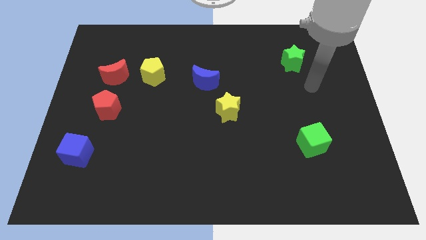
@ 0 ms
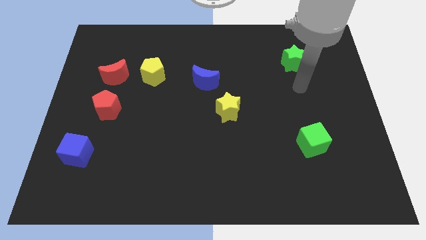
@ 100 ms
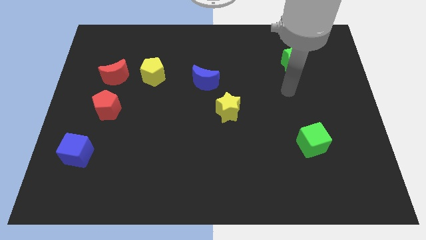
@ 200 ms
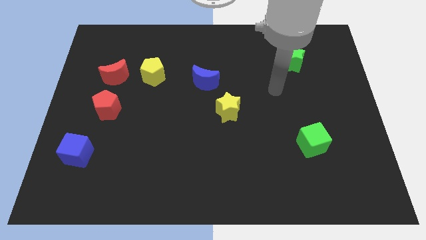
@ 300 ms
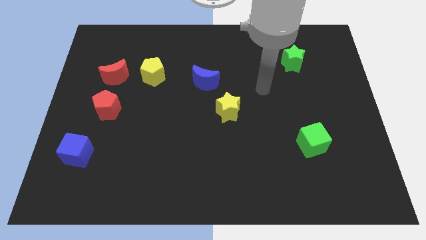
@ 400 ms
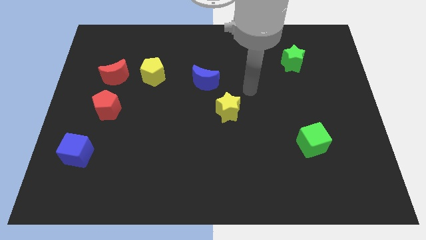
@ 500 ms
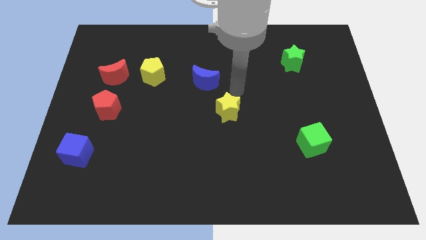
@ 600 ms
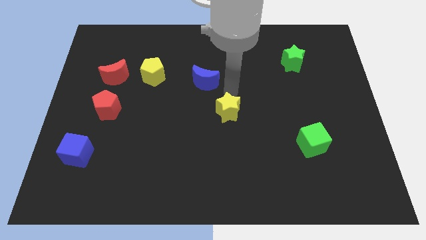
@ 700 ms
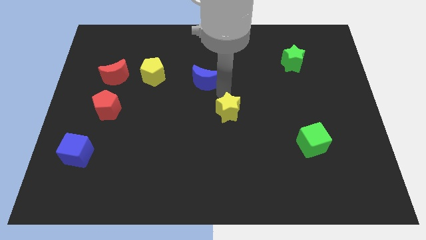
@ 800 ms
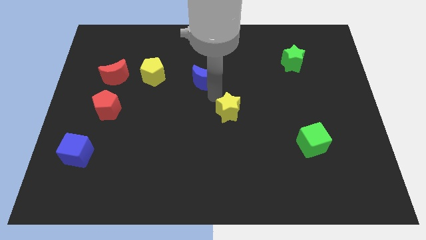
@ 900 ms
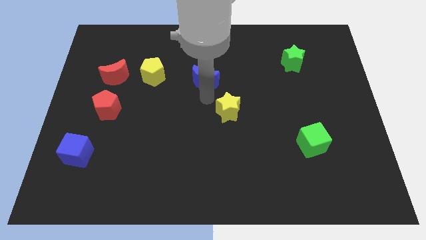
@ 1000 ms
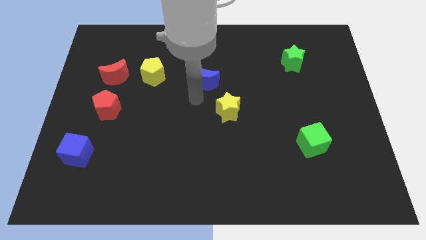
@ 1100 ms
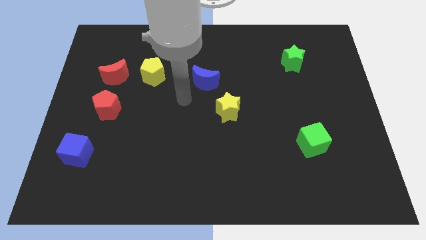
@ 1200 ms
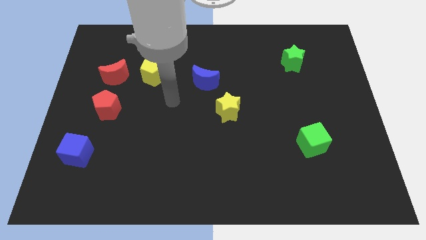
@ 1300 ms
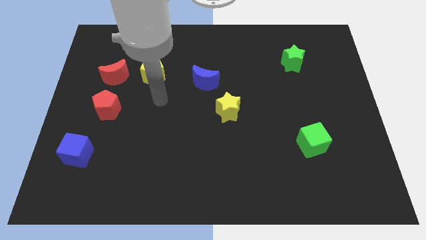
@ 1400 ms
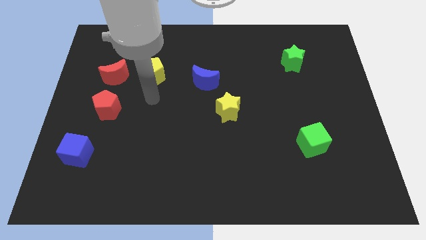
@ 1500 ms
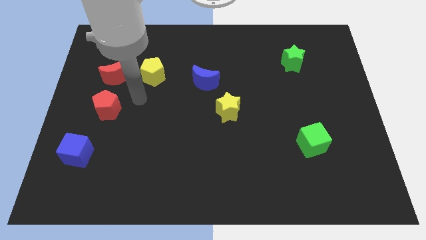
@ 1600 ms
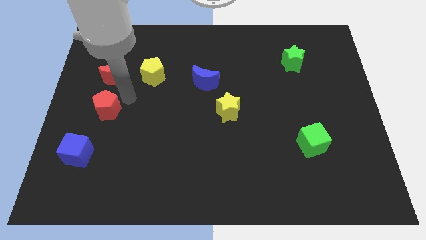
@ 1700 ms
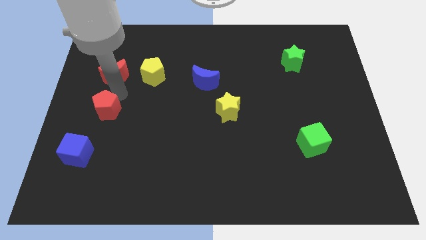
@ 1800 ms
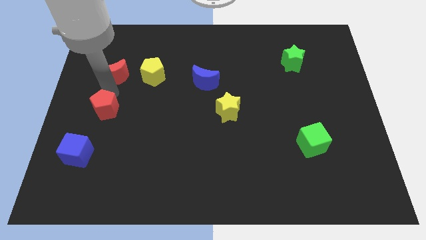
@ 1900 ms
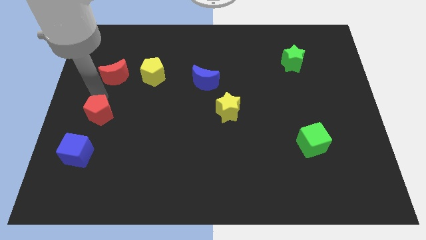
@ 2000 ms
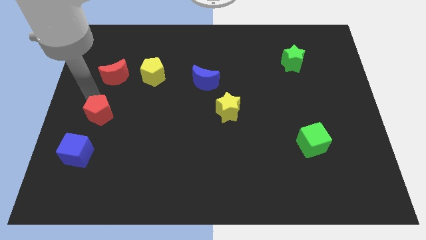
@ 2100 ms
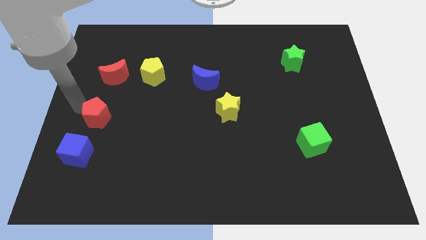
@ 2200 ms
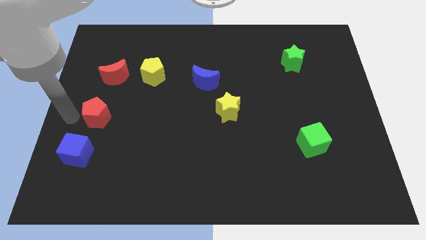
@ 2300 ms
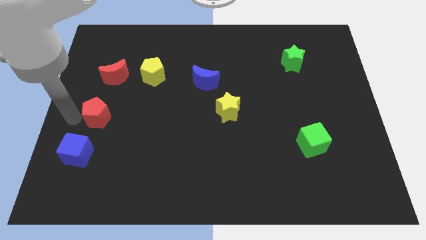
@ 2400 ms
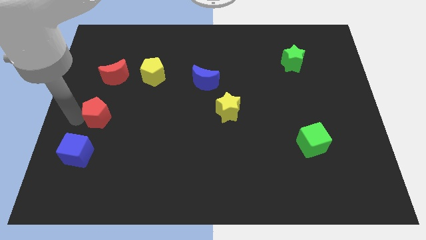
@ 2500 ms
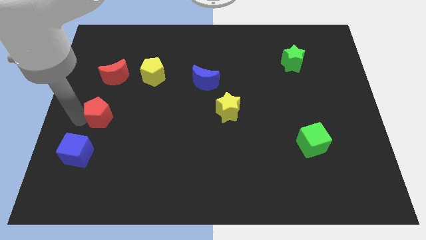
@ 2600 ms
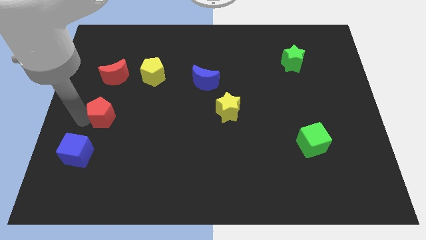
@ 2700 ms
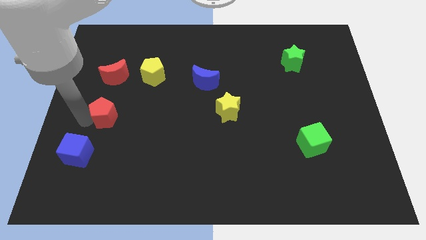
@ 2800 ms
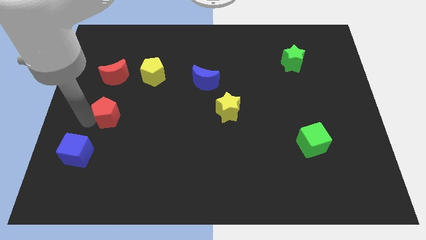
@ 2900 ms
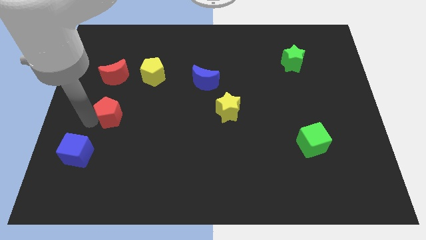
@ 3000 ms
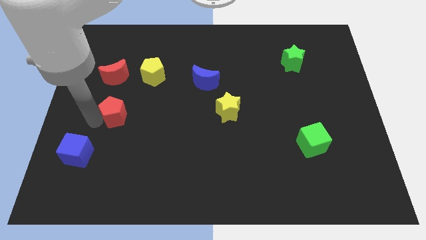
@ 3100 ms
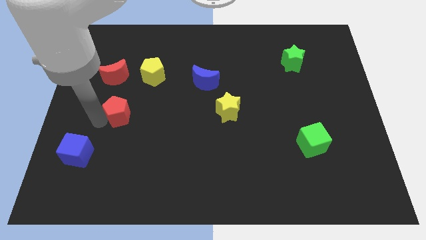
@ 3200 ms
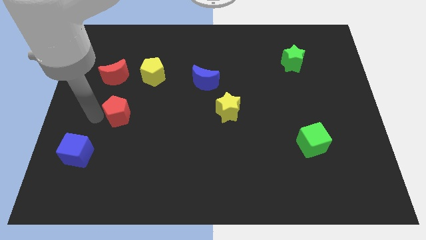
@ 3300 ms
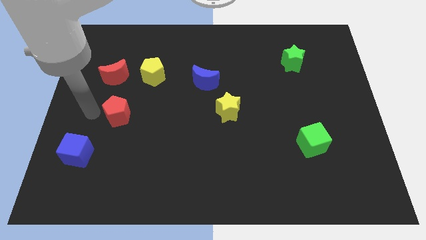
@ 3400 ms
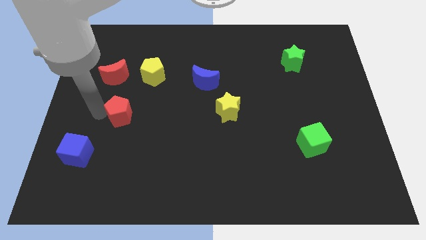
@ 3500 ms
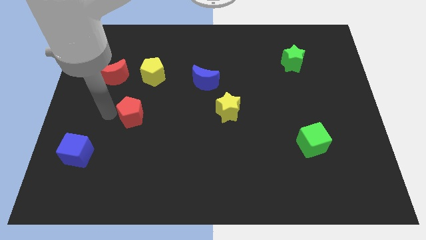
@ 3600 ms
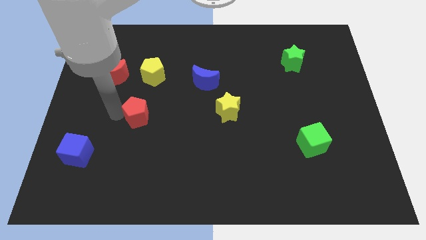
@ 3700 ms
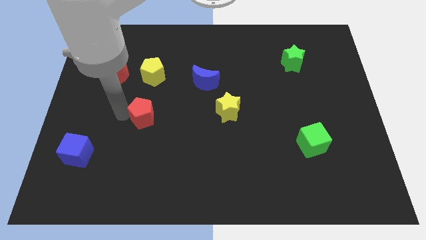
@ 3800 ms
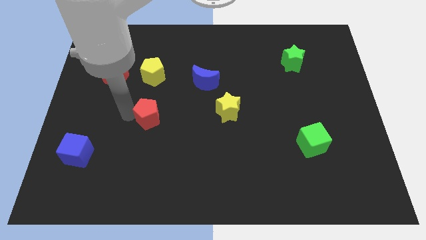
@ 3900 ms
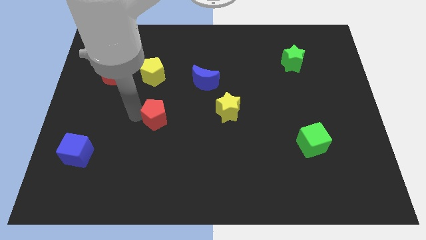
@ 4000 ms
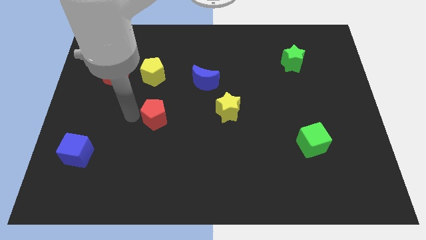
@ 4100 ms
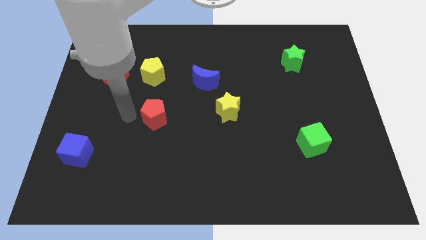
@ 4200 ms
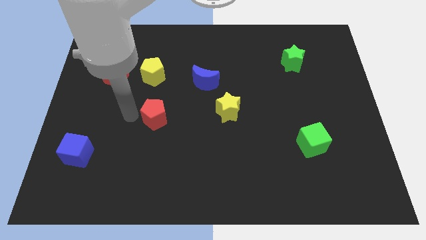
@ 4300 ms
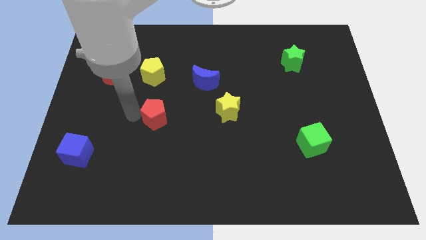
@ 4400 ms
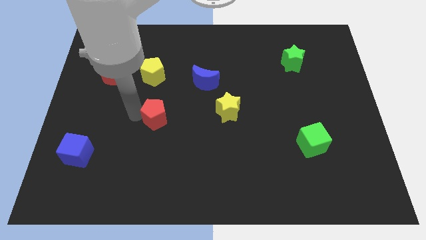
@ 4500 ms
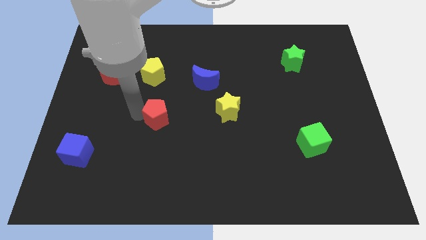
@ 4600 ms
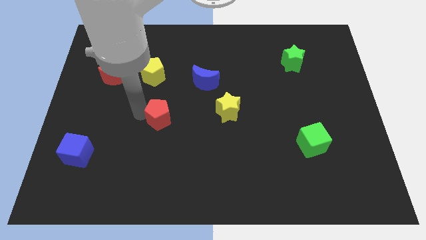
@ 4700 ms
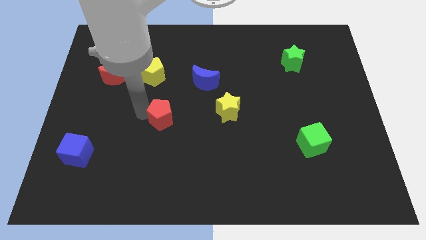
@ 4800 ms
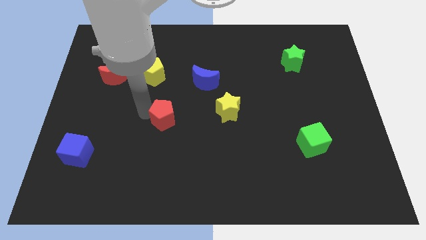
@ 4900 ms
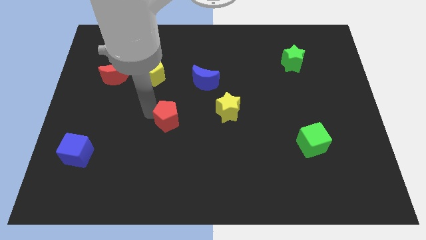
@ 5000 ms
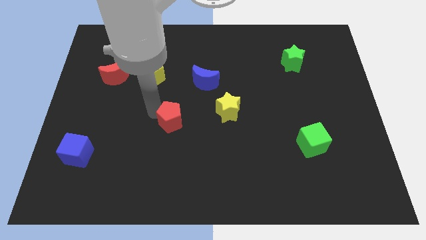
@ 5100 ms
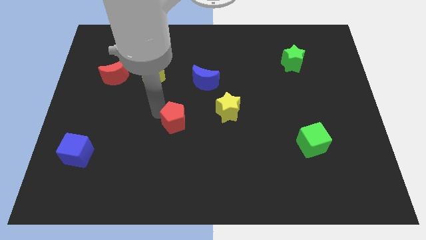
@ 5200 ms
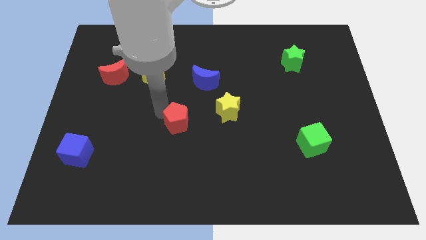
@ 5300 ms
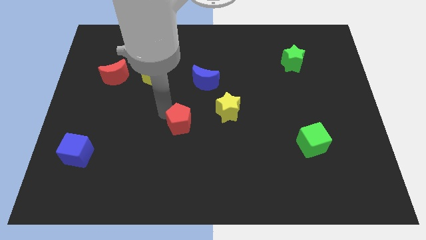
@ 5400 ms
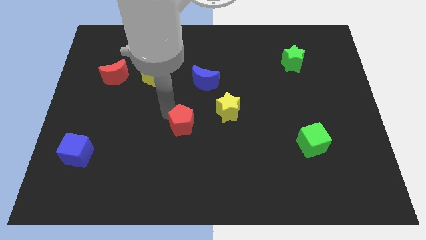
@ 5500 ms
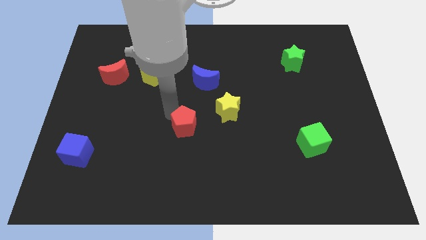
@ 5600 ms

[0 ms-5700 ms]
slide the red pentagon diagonally down and to the left of the yellow star

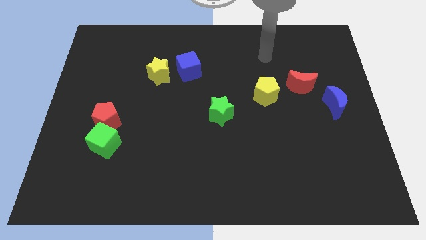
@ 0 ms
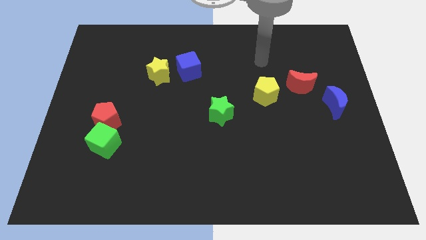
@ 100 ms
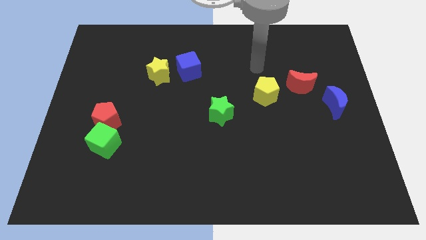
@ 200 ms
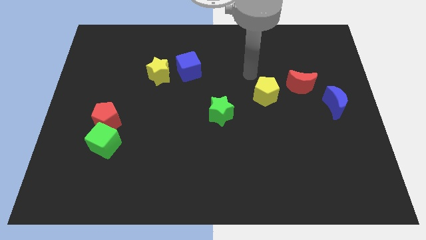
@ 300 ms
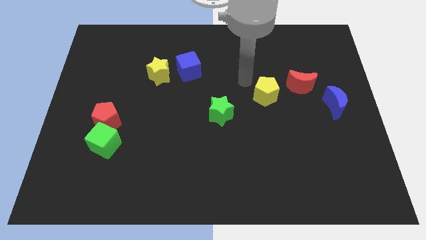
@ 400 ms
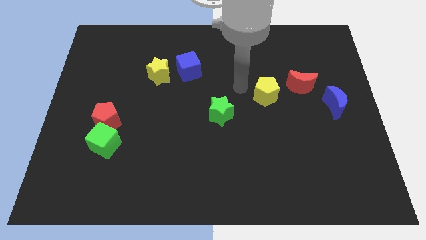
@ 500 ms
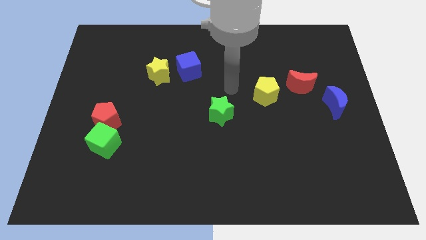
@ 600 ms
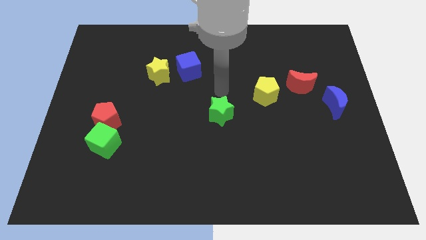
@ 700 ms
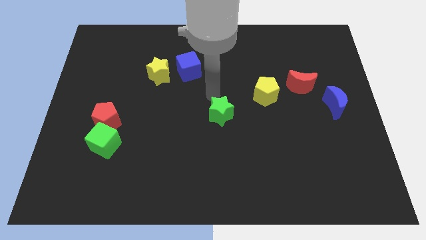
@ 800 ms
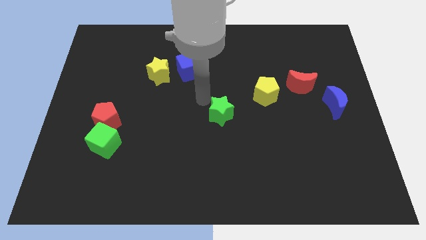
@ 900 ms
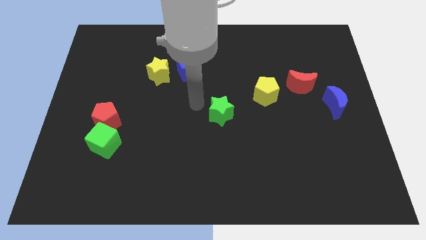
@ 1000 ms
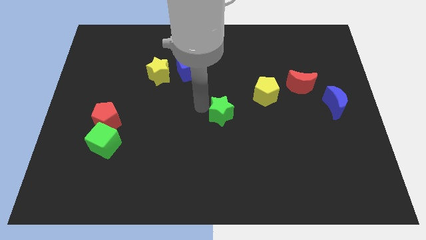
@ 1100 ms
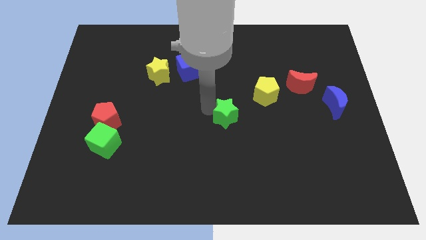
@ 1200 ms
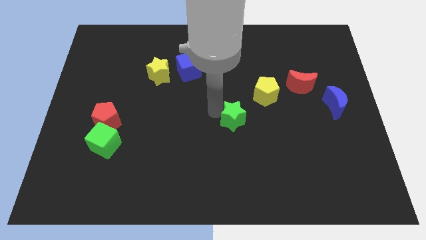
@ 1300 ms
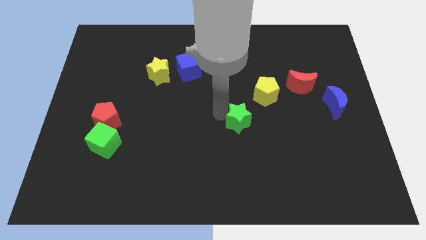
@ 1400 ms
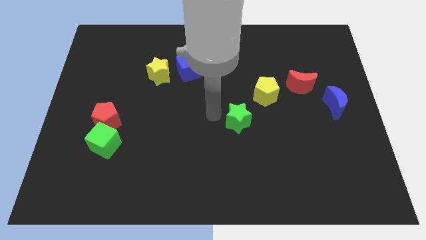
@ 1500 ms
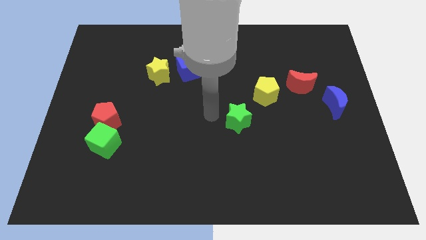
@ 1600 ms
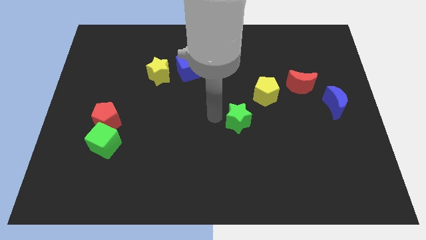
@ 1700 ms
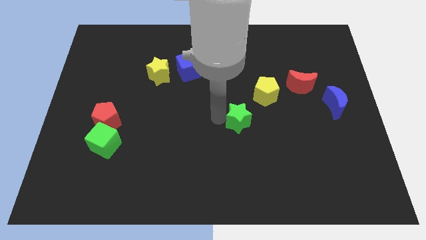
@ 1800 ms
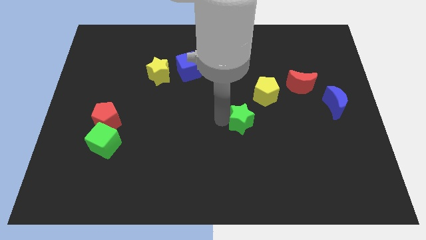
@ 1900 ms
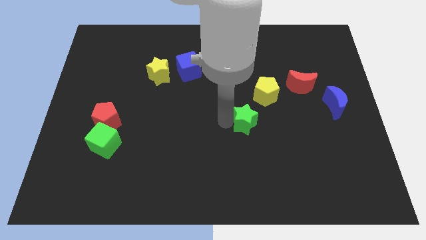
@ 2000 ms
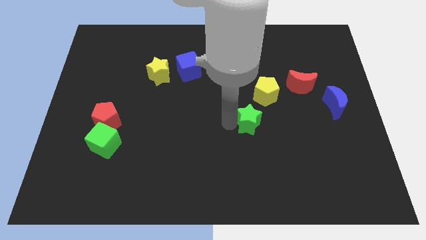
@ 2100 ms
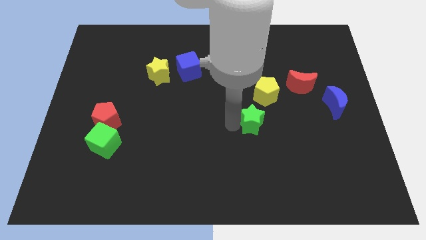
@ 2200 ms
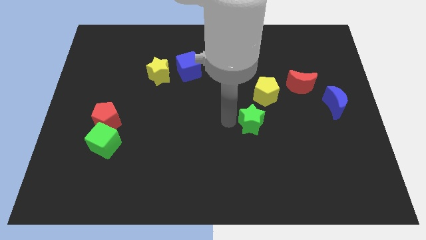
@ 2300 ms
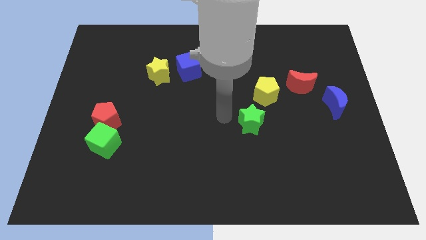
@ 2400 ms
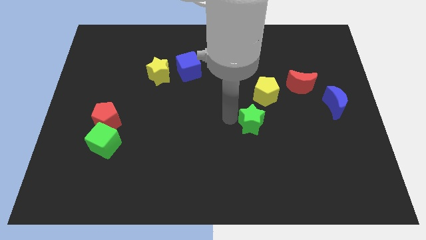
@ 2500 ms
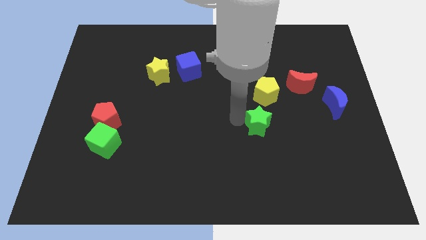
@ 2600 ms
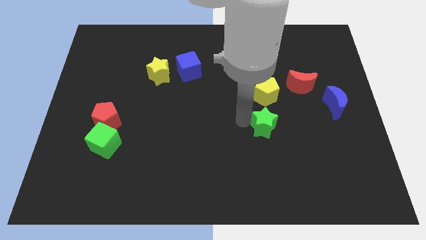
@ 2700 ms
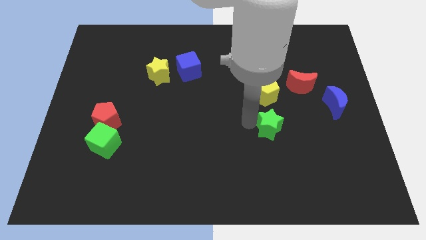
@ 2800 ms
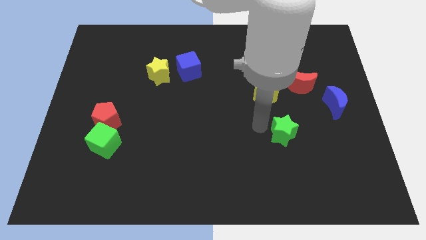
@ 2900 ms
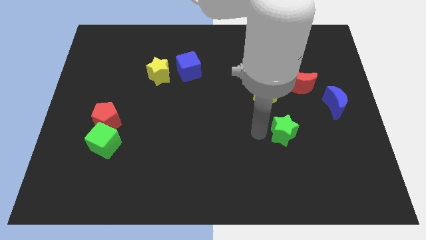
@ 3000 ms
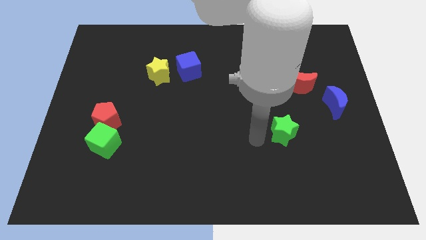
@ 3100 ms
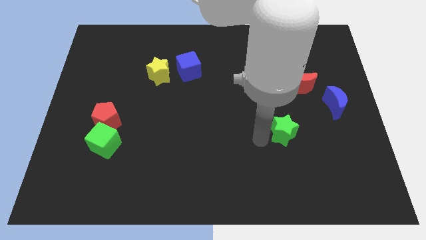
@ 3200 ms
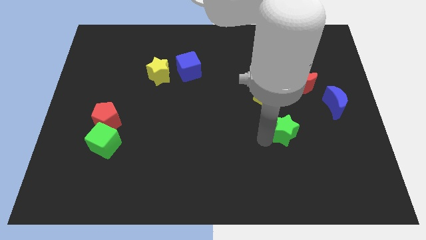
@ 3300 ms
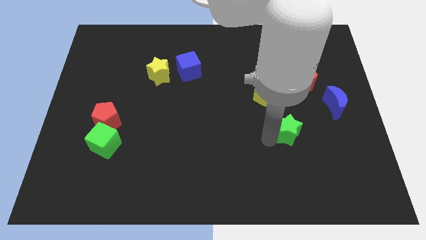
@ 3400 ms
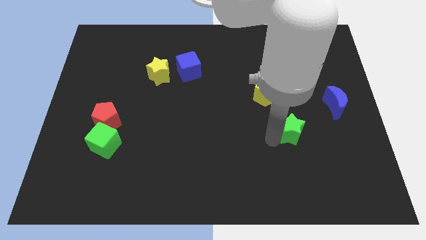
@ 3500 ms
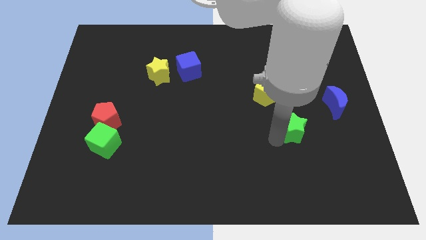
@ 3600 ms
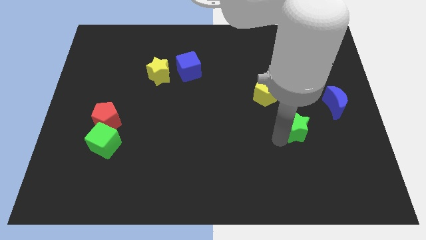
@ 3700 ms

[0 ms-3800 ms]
slide the green star to the bottom left side of the blue moon
